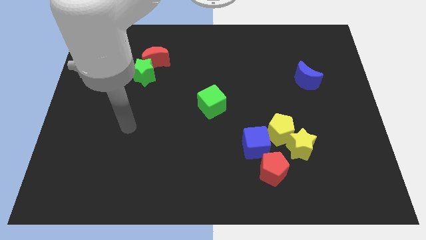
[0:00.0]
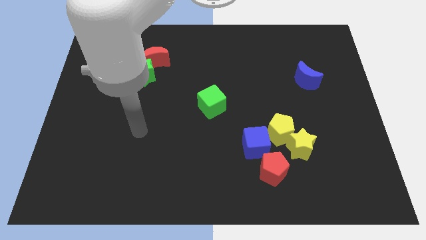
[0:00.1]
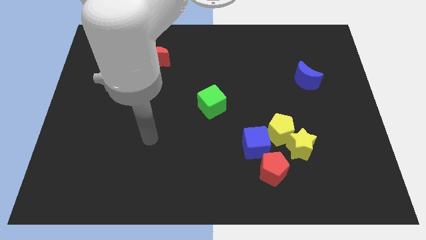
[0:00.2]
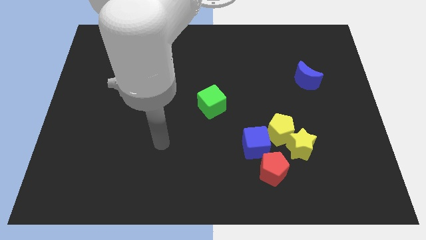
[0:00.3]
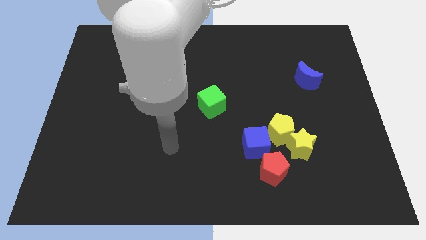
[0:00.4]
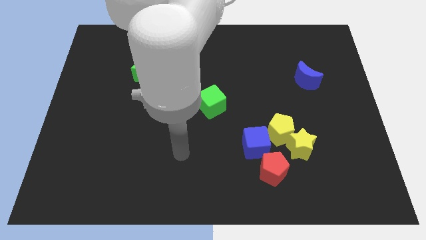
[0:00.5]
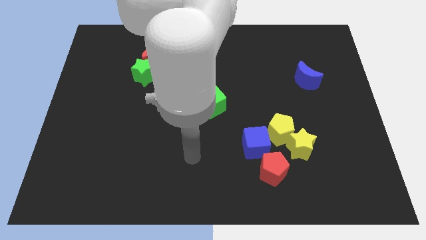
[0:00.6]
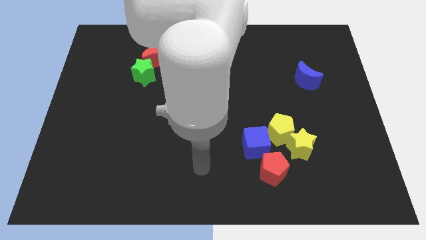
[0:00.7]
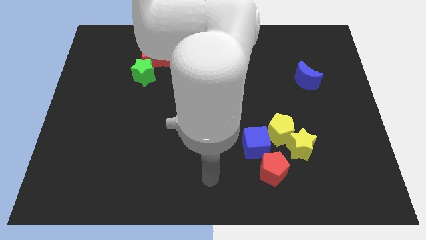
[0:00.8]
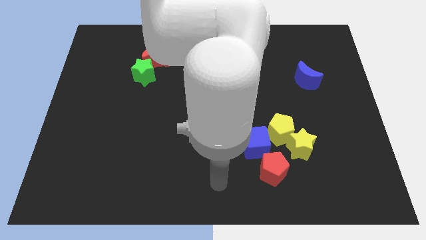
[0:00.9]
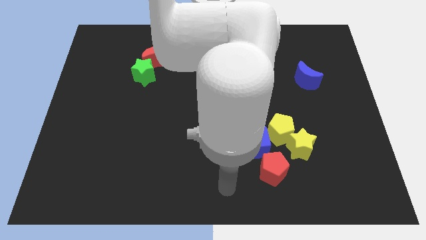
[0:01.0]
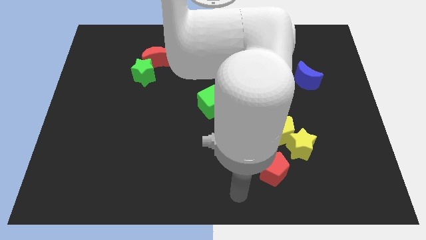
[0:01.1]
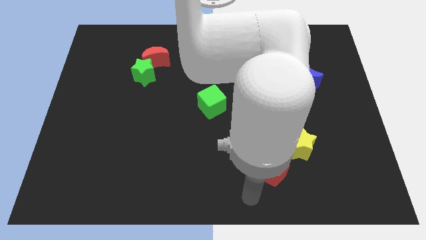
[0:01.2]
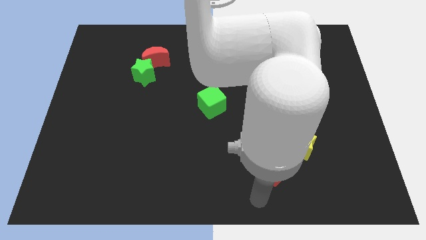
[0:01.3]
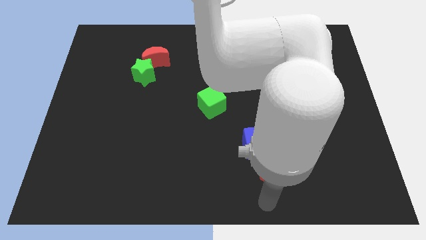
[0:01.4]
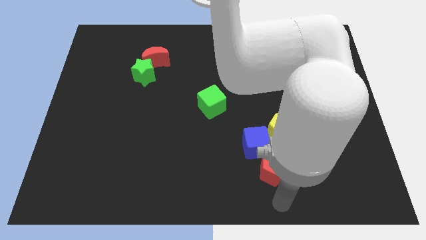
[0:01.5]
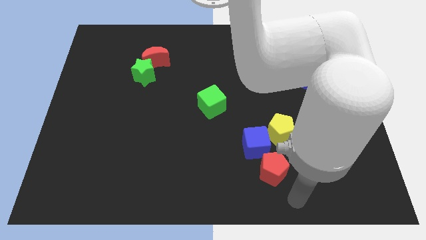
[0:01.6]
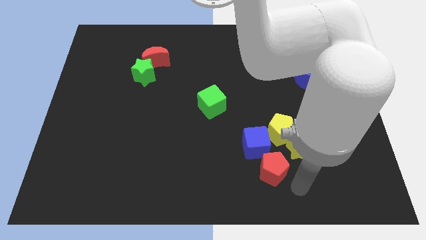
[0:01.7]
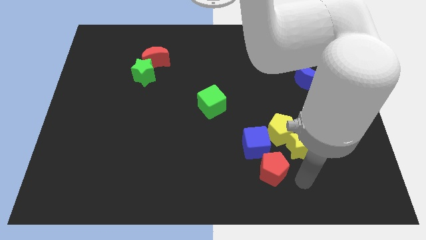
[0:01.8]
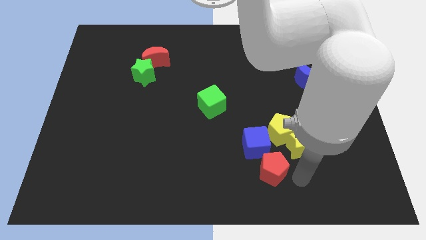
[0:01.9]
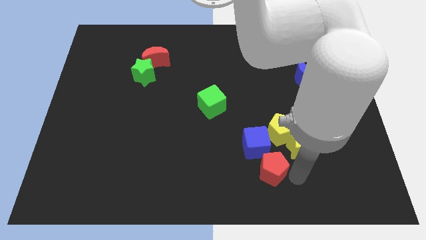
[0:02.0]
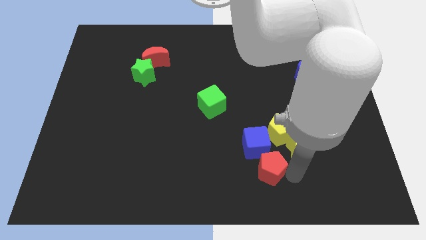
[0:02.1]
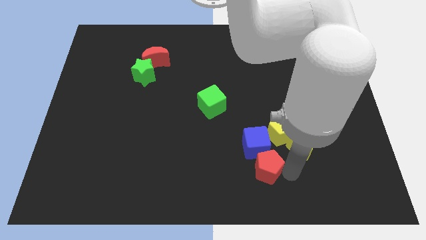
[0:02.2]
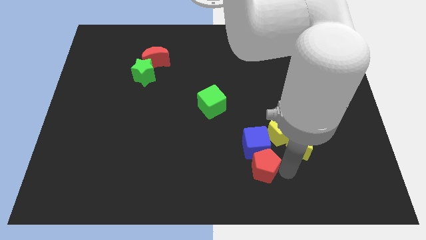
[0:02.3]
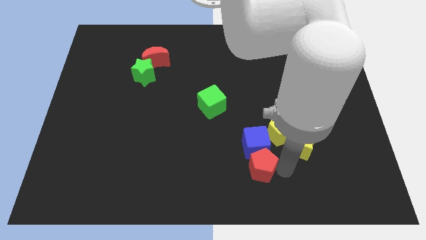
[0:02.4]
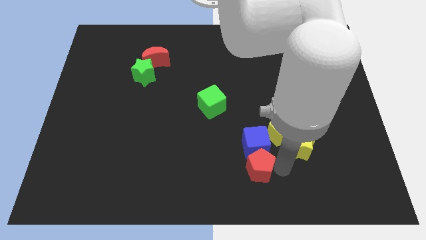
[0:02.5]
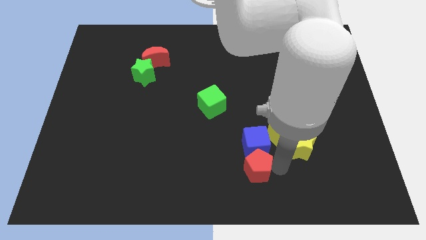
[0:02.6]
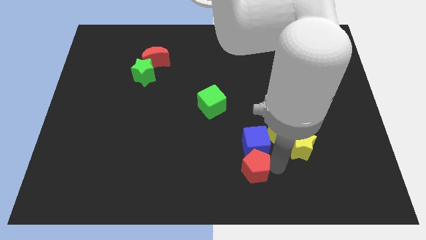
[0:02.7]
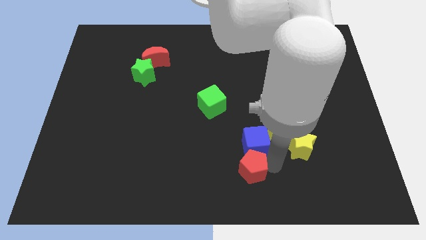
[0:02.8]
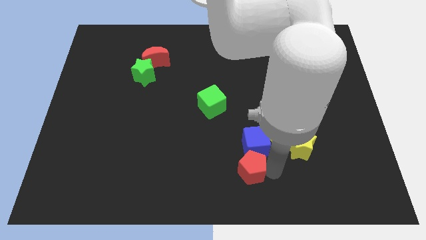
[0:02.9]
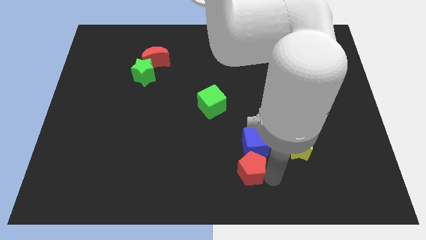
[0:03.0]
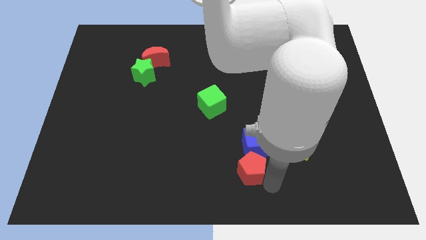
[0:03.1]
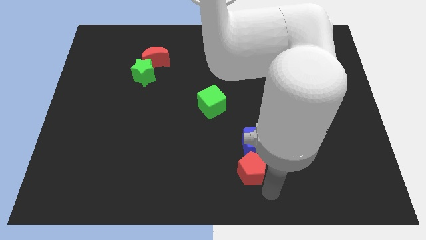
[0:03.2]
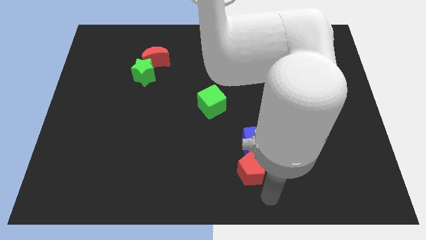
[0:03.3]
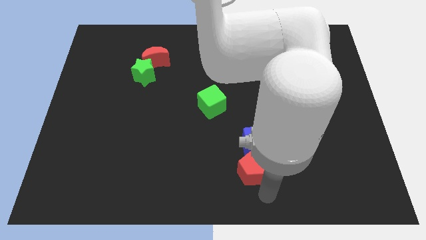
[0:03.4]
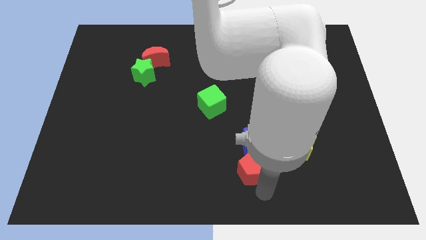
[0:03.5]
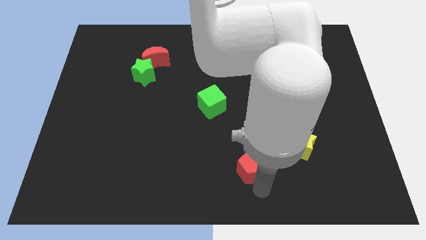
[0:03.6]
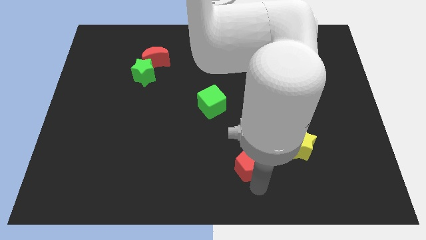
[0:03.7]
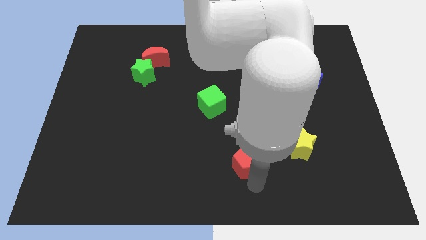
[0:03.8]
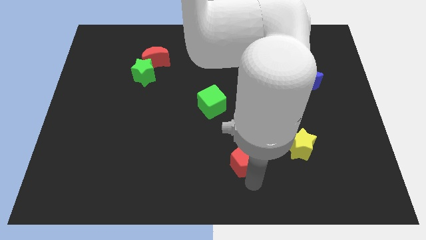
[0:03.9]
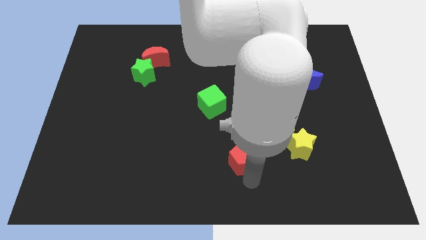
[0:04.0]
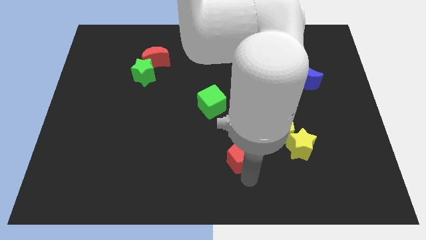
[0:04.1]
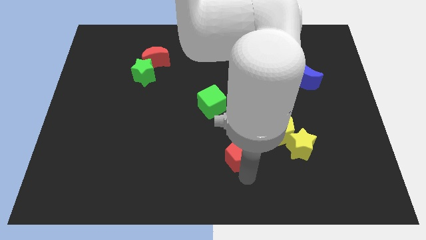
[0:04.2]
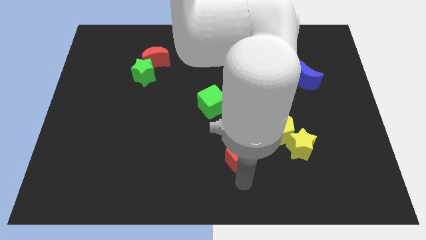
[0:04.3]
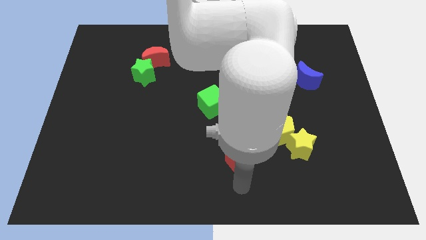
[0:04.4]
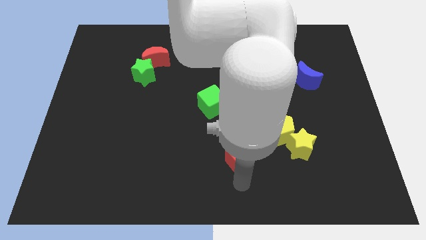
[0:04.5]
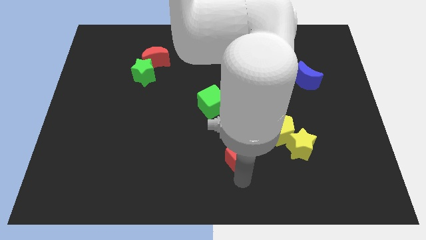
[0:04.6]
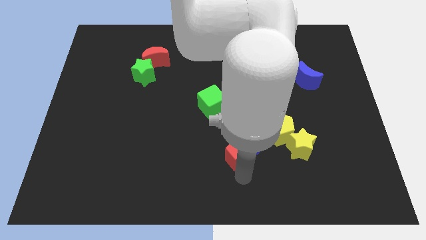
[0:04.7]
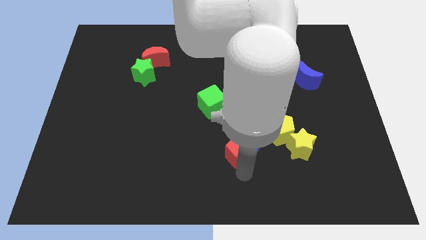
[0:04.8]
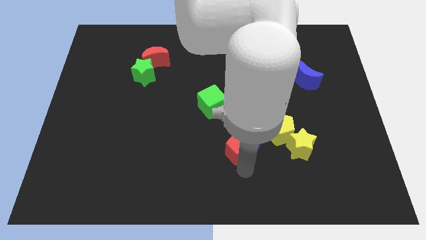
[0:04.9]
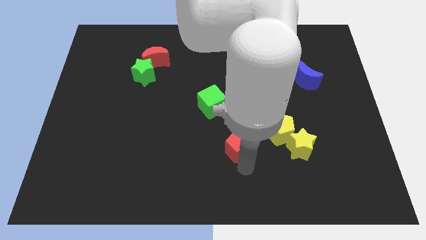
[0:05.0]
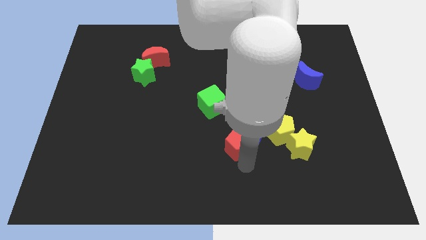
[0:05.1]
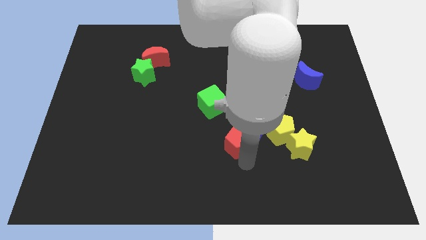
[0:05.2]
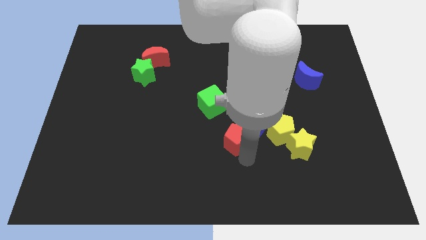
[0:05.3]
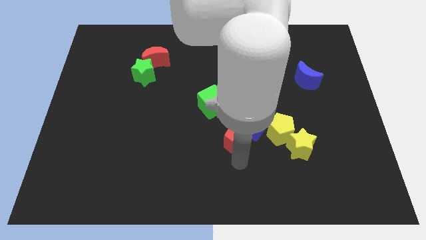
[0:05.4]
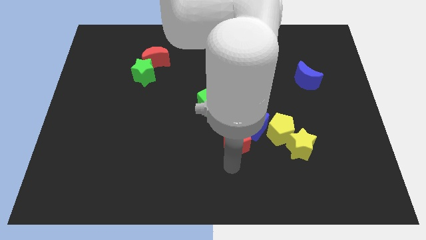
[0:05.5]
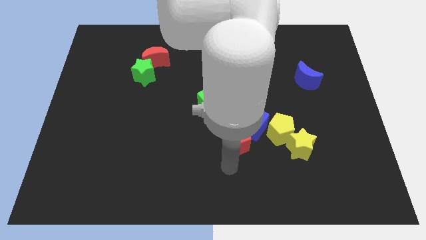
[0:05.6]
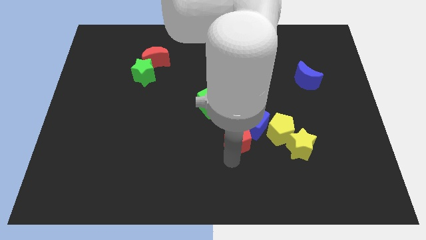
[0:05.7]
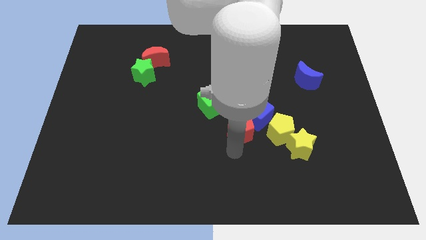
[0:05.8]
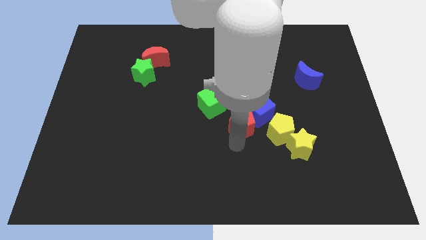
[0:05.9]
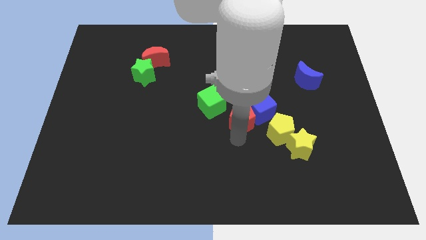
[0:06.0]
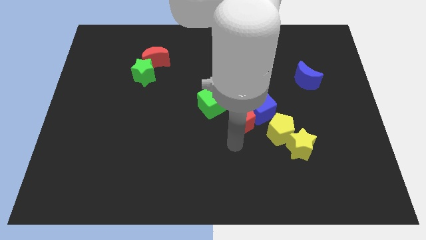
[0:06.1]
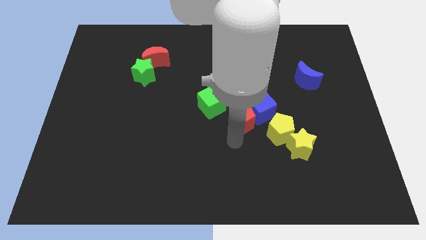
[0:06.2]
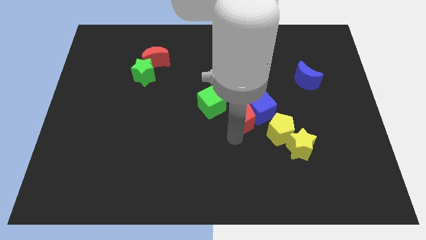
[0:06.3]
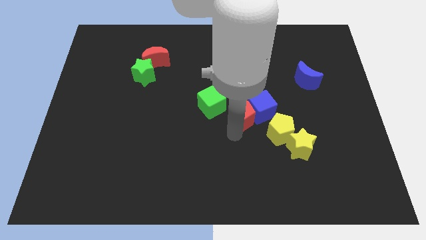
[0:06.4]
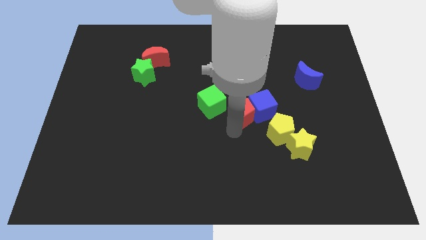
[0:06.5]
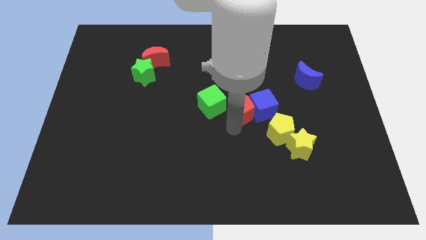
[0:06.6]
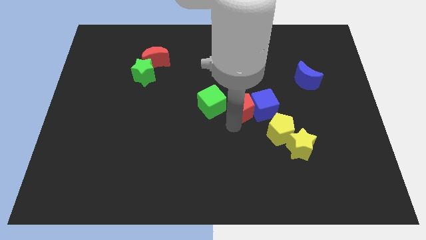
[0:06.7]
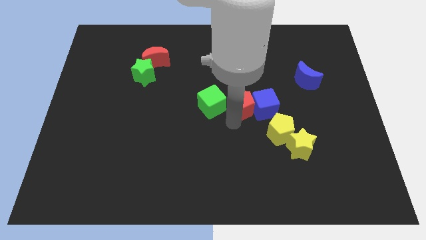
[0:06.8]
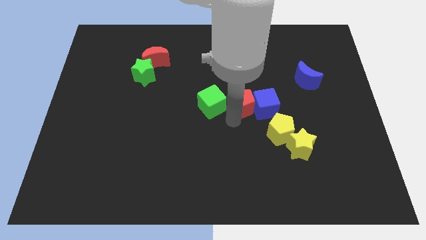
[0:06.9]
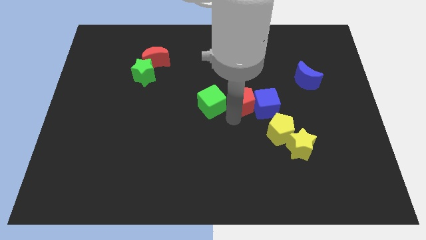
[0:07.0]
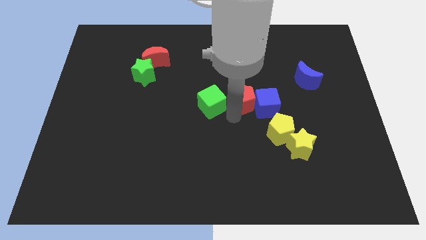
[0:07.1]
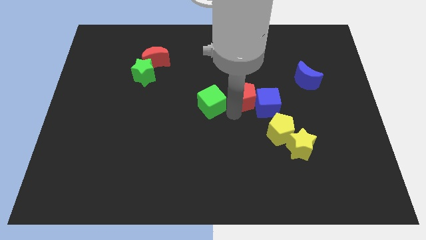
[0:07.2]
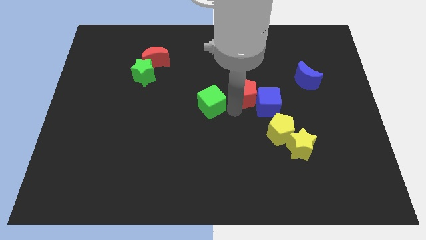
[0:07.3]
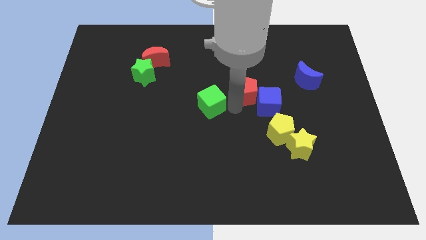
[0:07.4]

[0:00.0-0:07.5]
move the red pentagon upwards

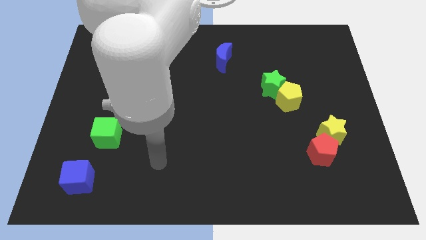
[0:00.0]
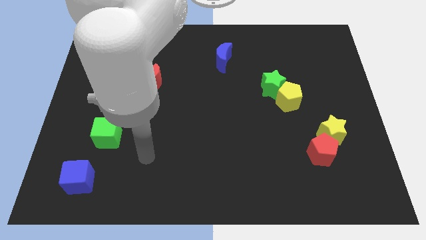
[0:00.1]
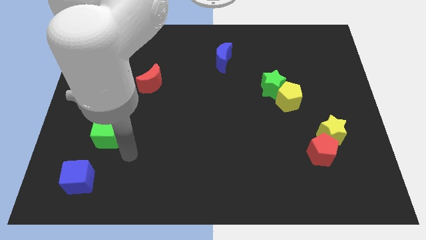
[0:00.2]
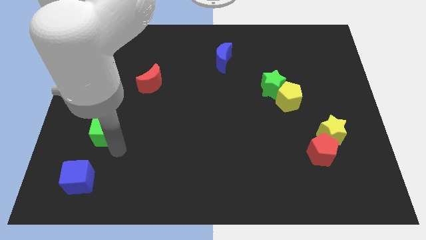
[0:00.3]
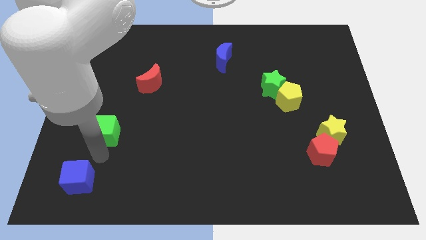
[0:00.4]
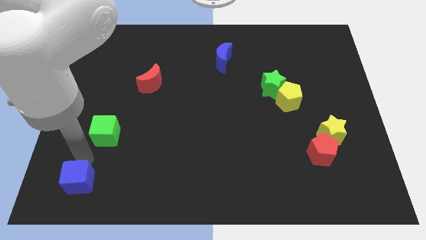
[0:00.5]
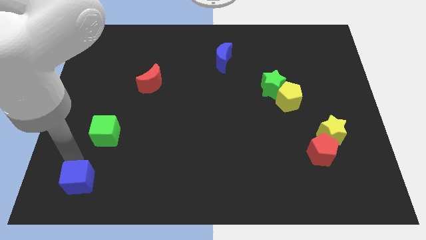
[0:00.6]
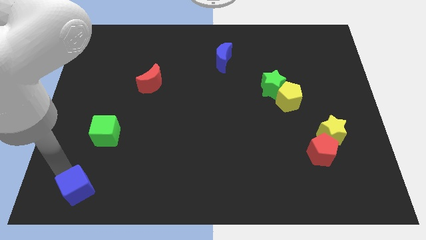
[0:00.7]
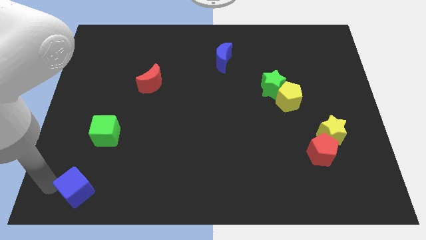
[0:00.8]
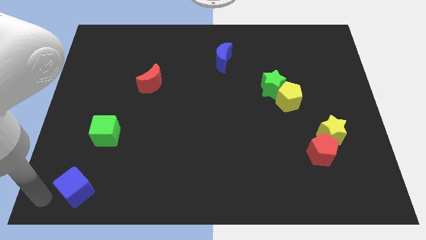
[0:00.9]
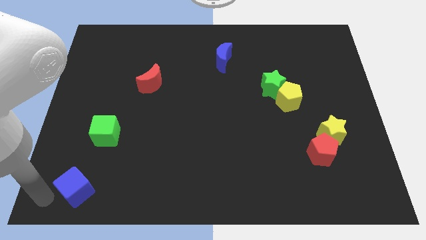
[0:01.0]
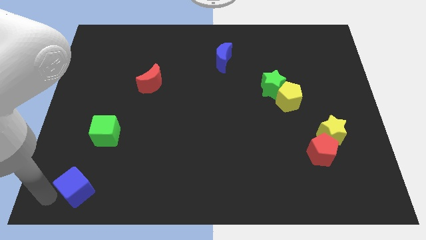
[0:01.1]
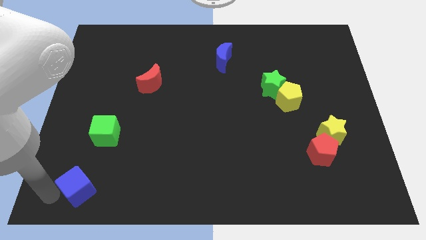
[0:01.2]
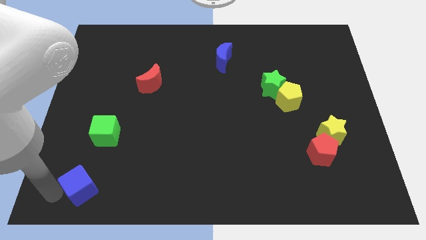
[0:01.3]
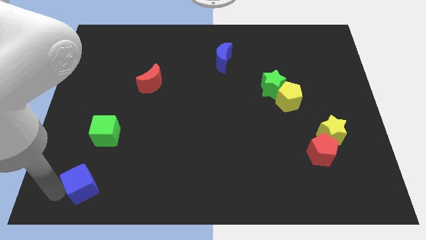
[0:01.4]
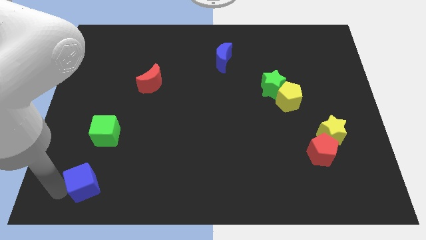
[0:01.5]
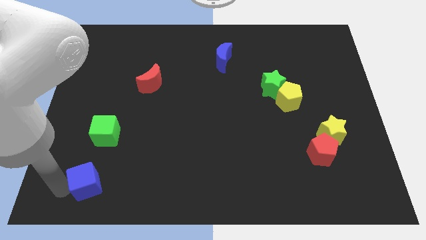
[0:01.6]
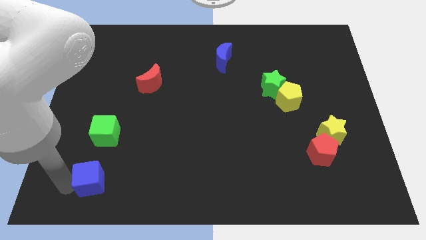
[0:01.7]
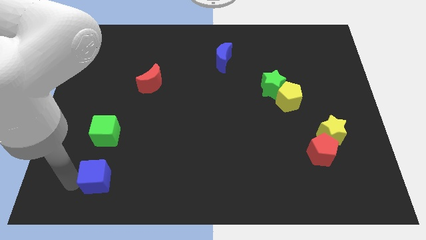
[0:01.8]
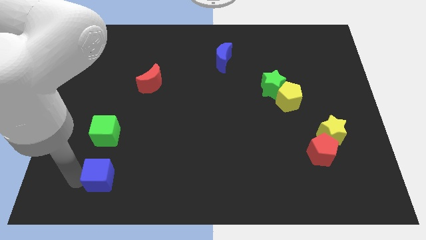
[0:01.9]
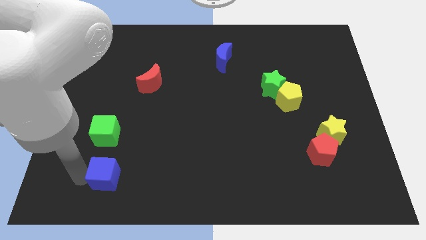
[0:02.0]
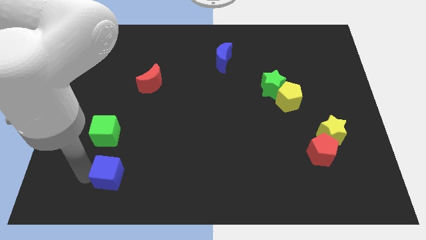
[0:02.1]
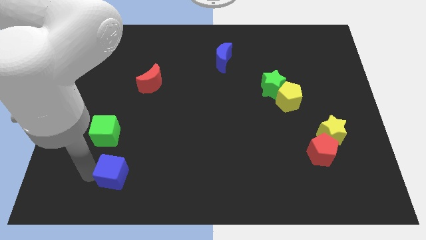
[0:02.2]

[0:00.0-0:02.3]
push the blue cube to the right slightly
